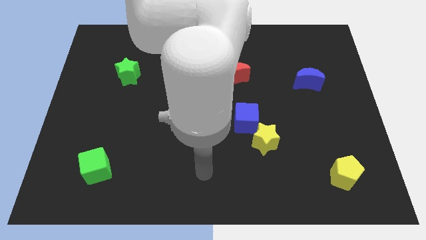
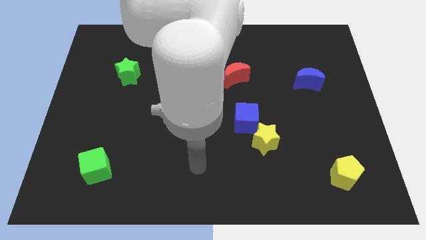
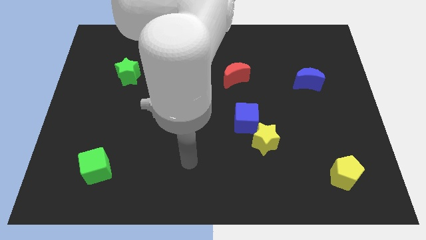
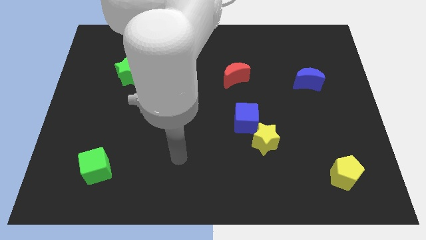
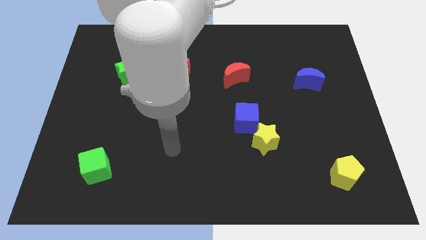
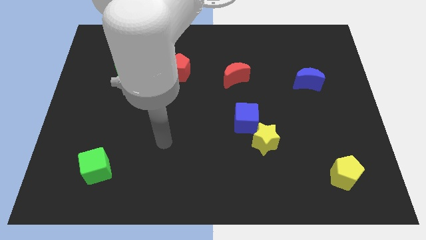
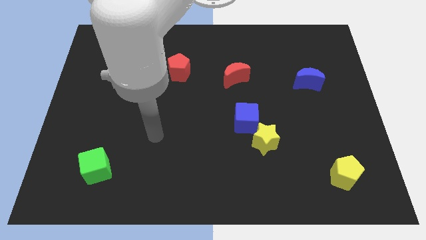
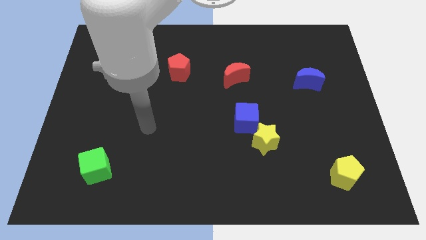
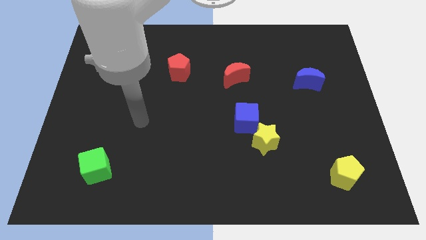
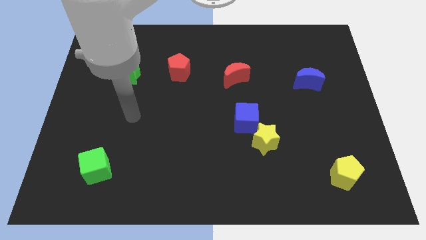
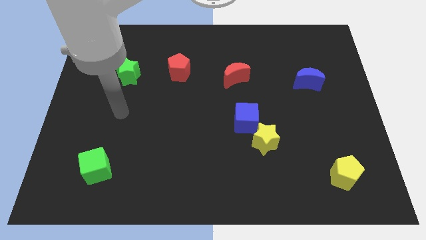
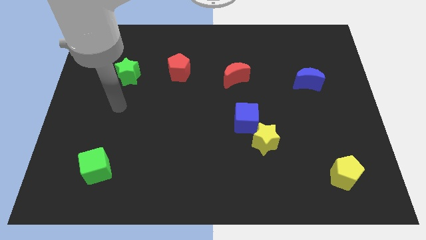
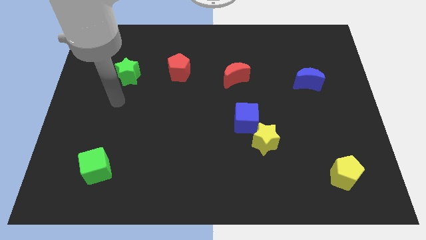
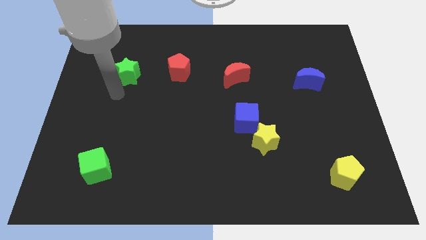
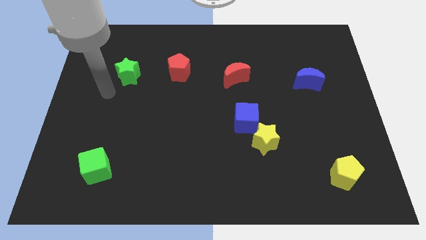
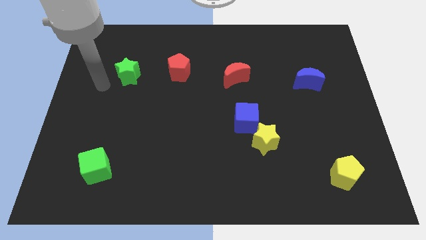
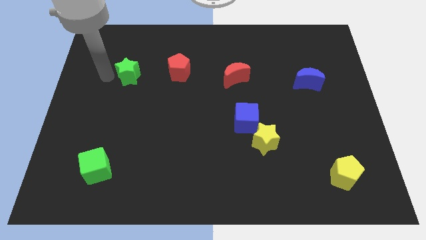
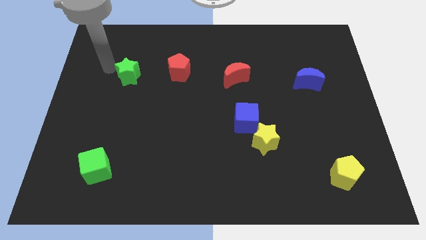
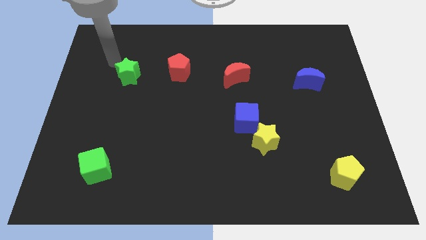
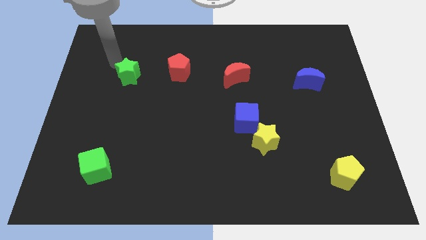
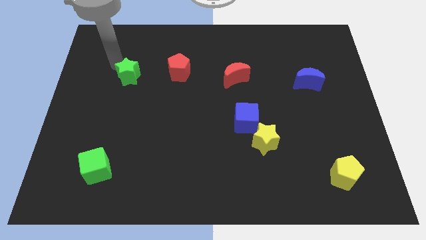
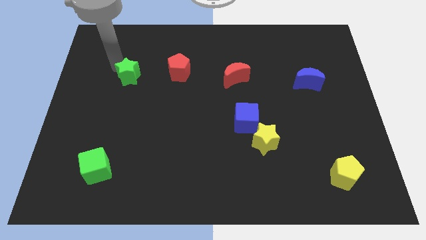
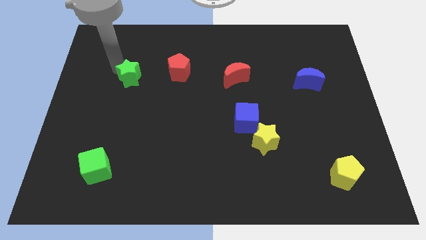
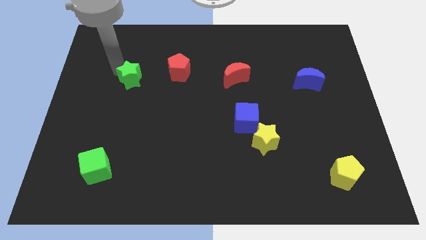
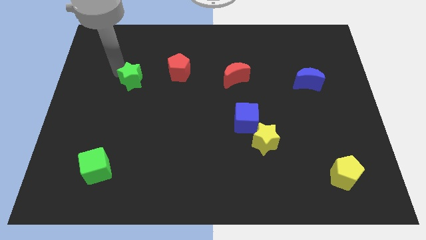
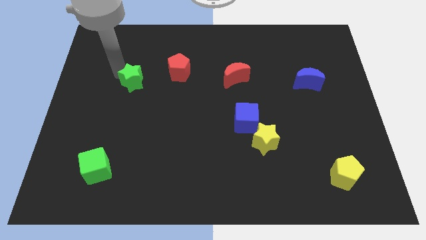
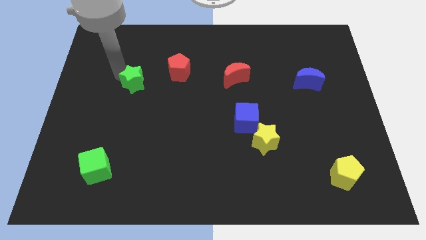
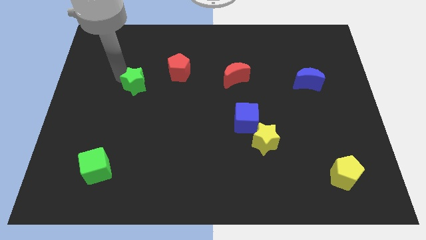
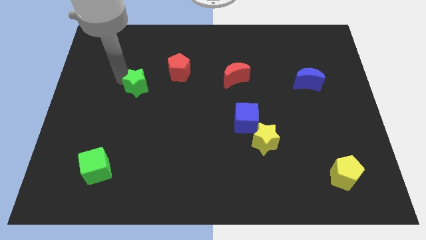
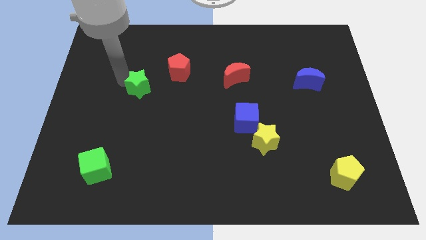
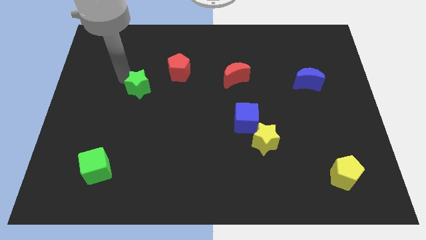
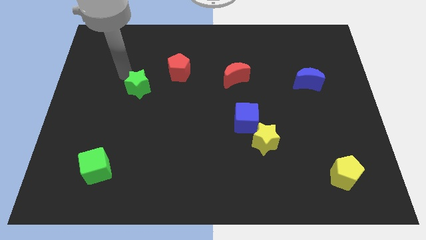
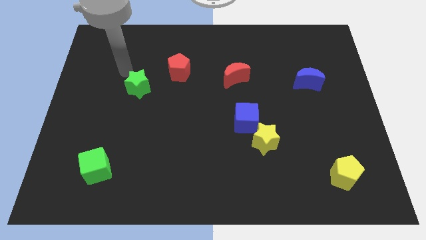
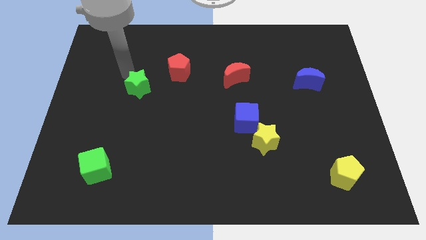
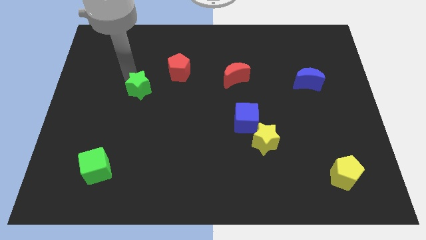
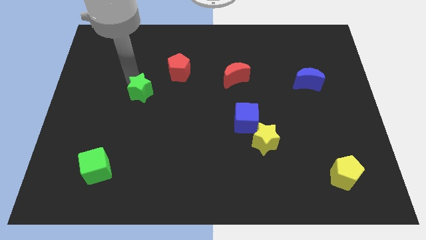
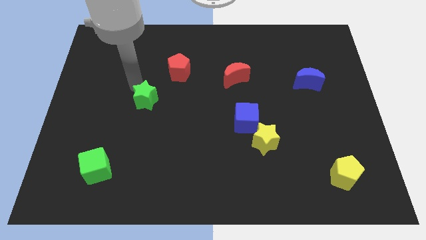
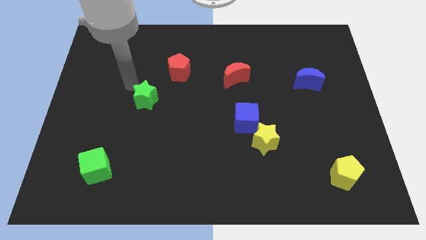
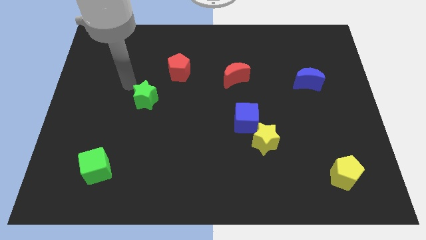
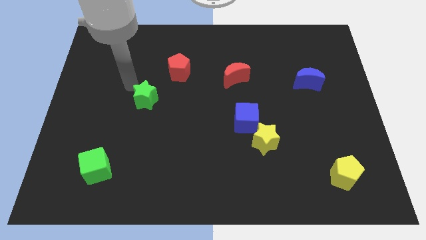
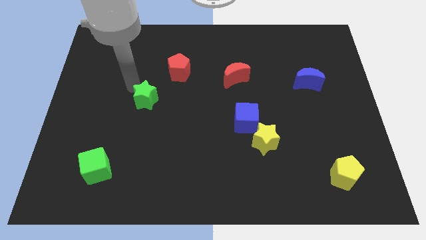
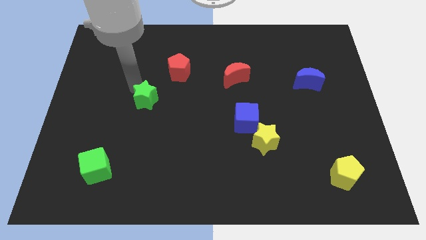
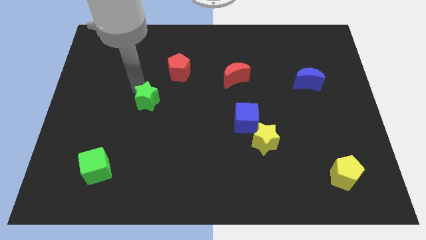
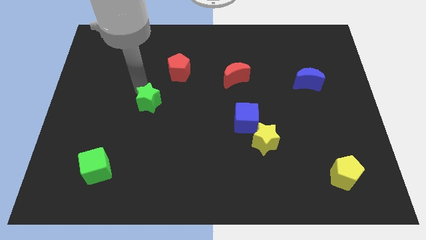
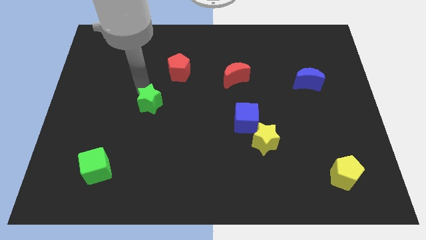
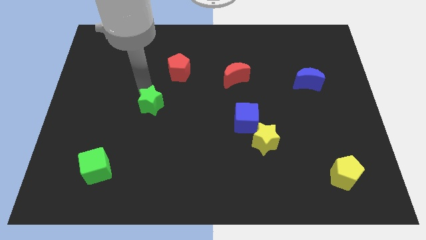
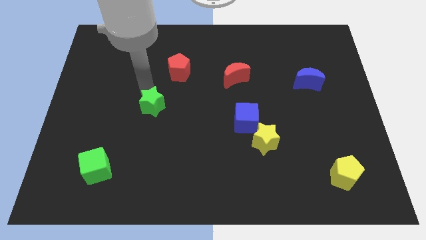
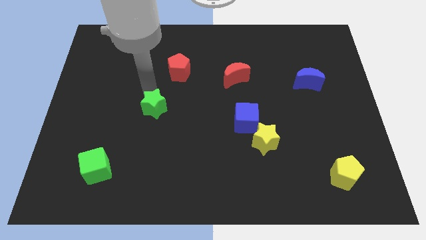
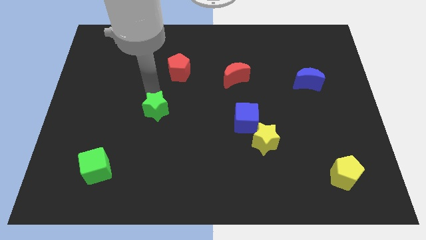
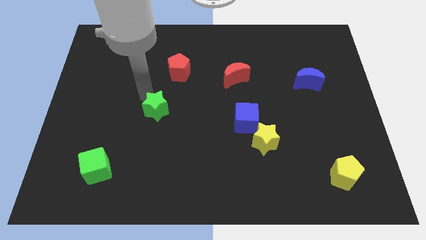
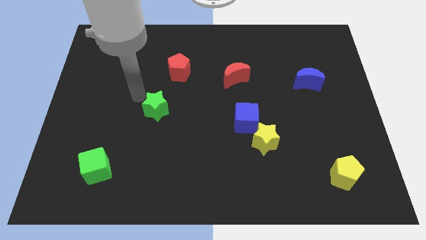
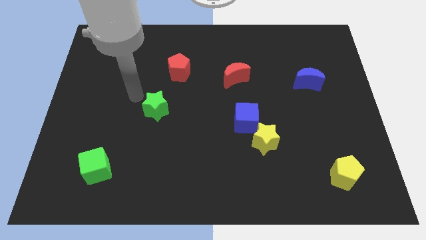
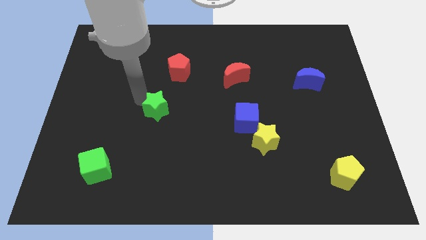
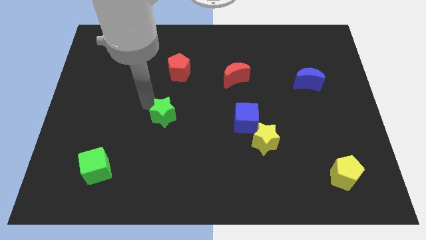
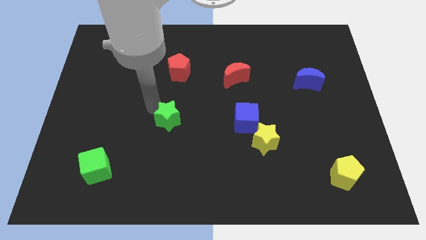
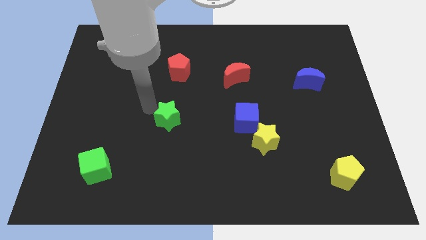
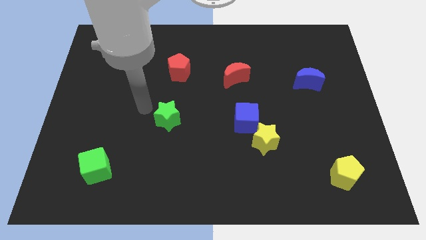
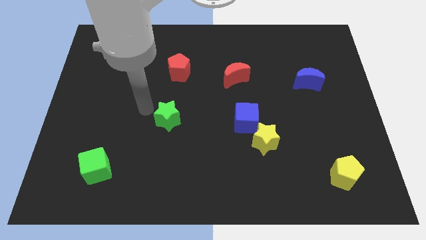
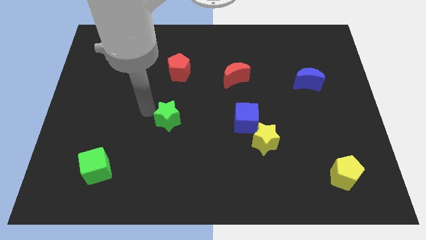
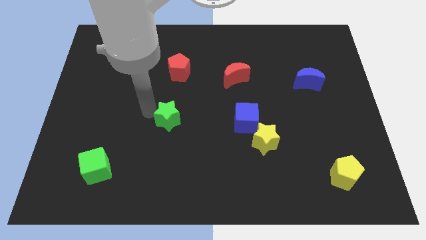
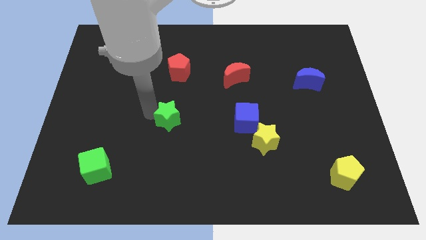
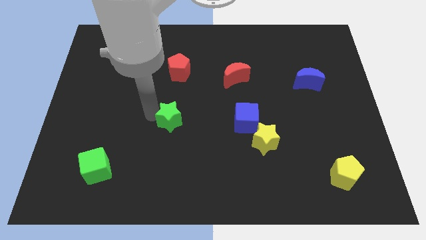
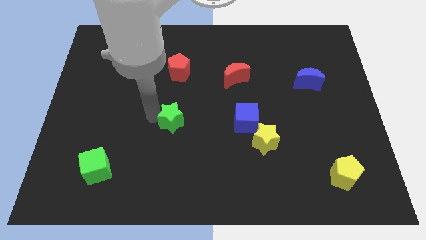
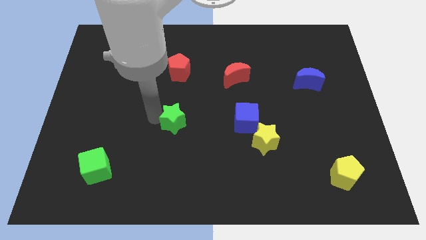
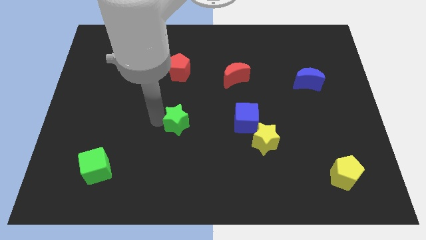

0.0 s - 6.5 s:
slide the green star diagonally downwards and to the right

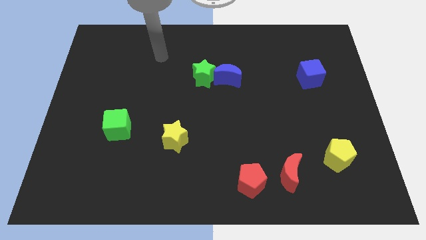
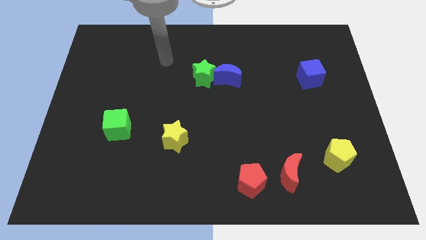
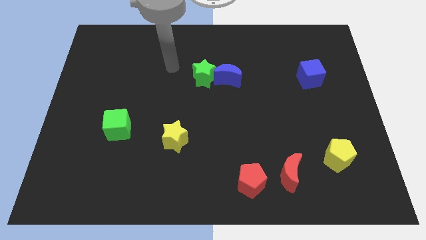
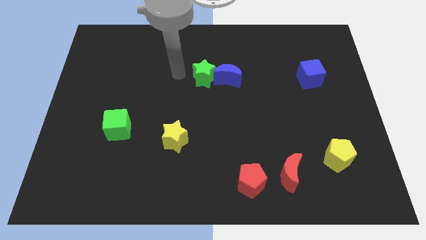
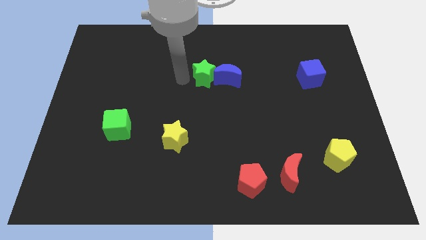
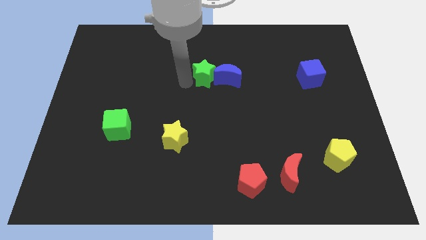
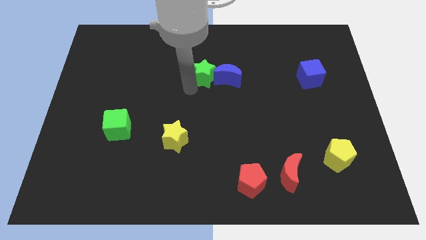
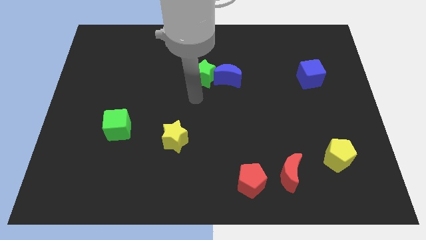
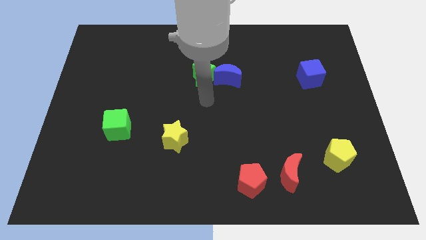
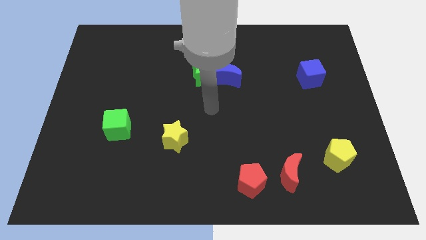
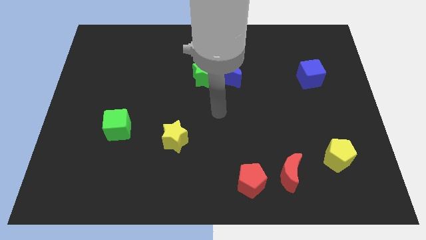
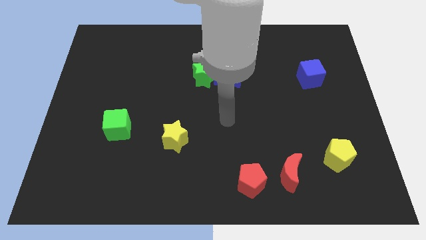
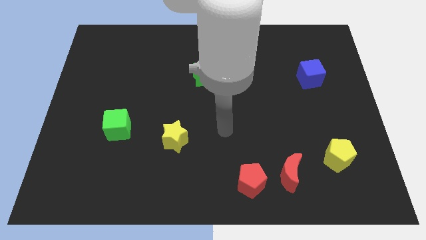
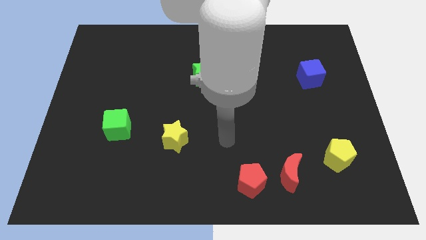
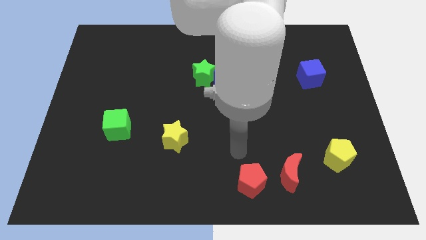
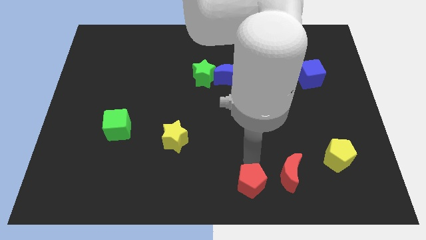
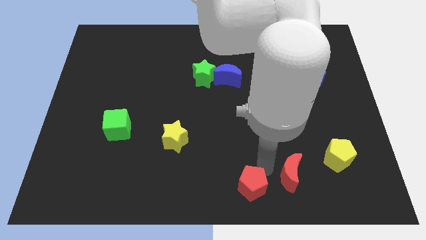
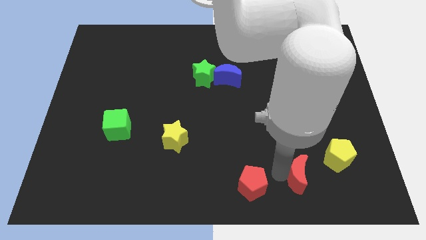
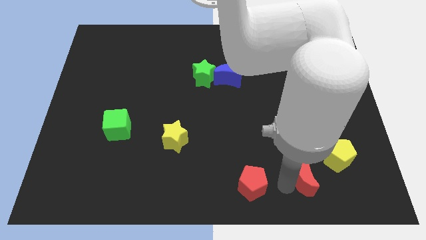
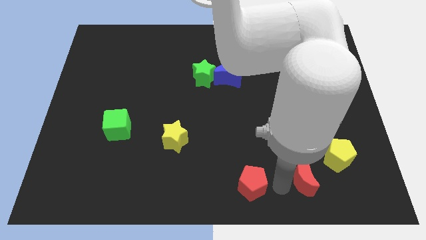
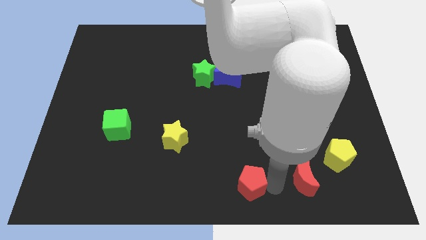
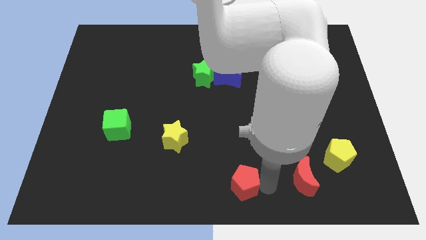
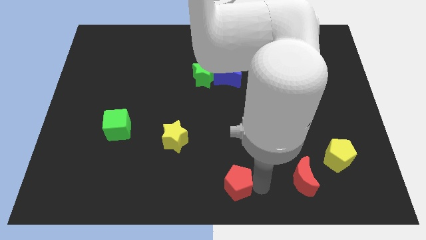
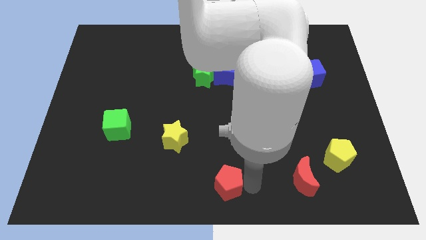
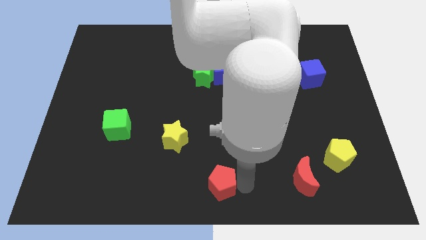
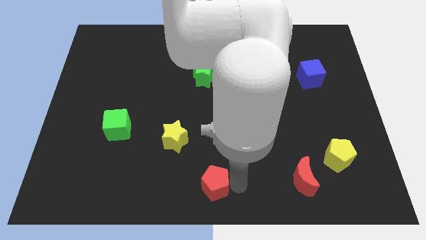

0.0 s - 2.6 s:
push the red pentagon slightly to the left
